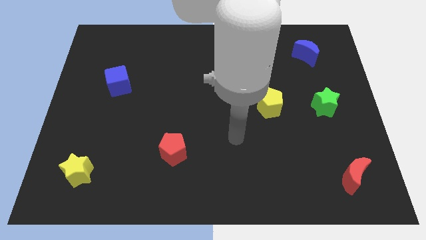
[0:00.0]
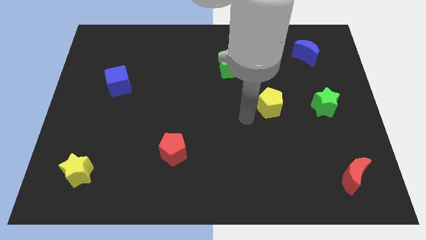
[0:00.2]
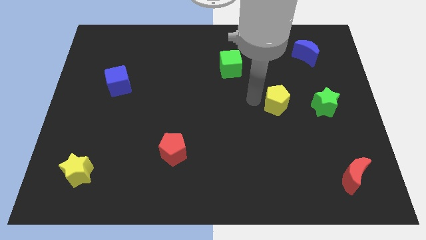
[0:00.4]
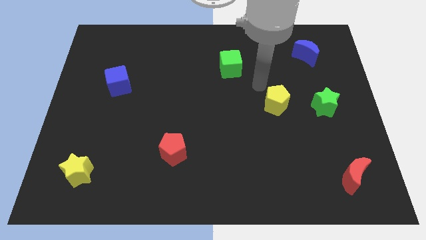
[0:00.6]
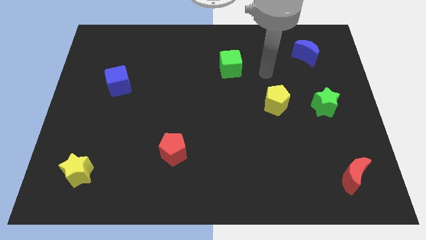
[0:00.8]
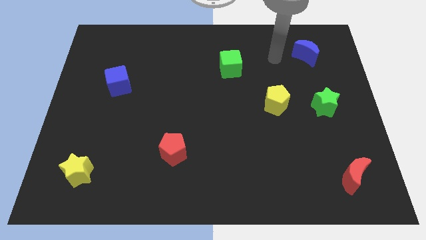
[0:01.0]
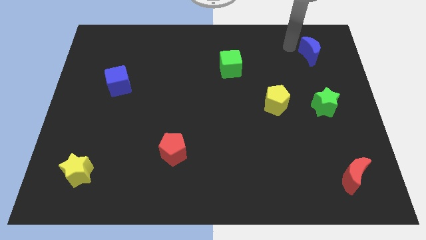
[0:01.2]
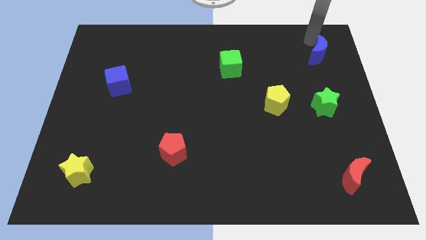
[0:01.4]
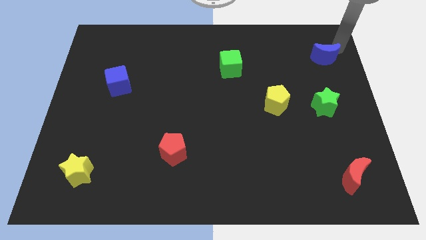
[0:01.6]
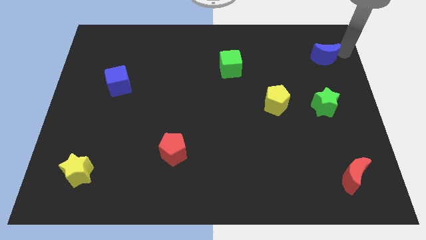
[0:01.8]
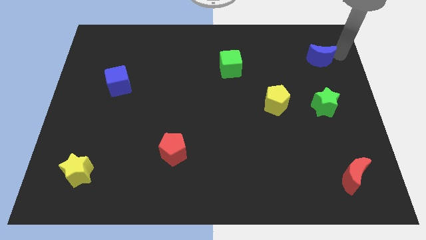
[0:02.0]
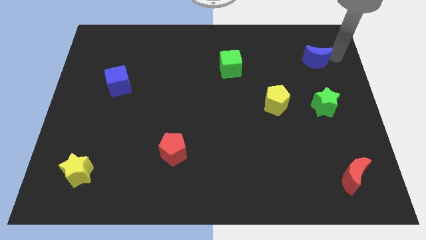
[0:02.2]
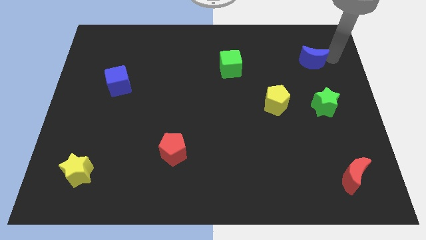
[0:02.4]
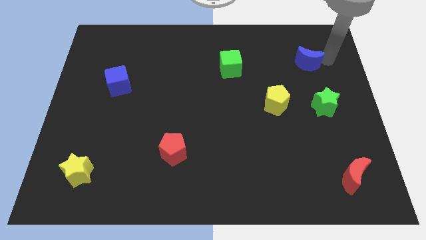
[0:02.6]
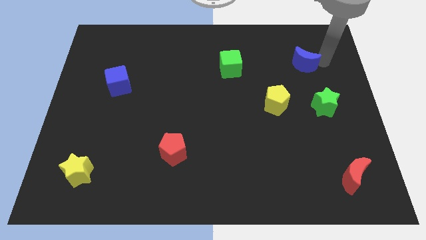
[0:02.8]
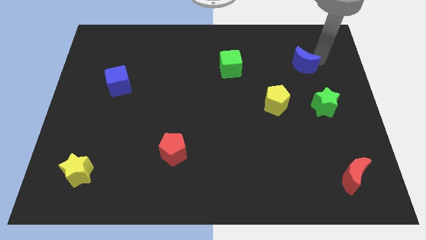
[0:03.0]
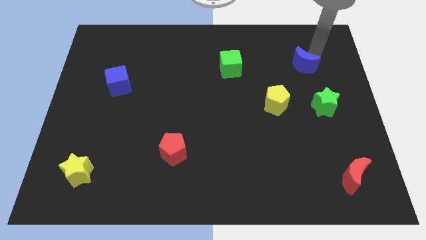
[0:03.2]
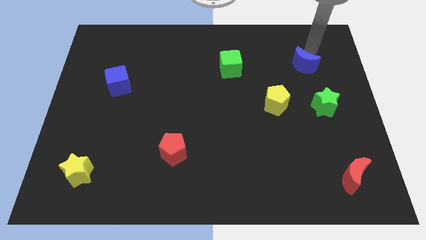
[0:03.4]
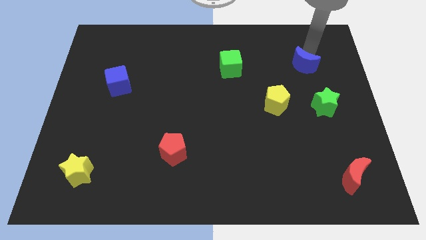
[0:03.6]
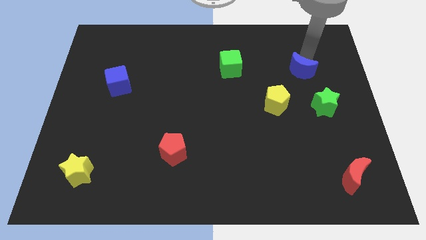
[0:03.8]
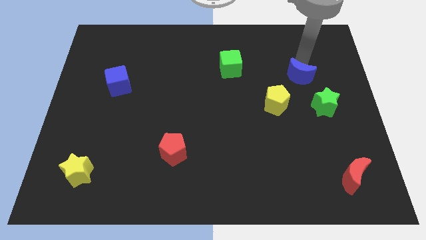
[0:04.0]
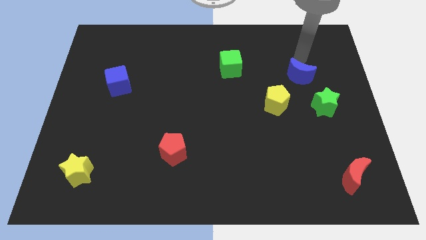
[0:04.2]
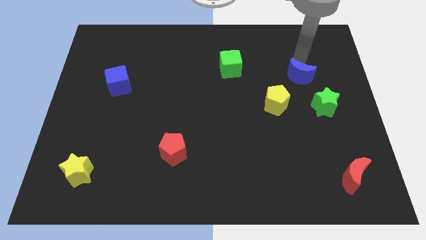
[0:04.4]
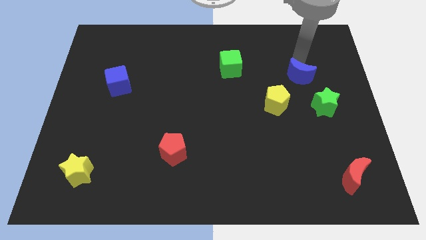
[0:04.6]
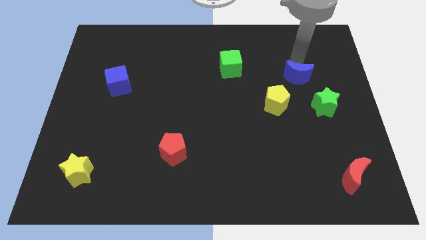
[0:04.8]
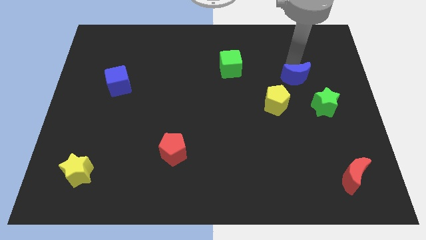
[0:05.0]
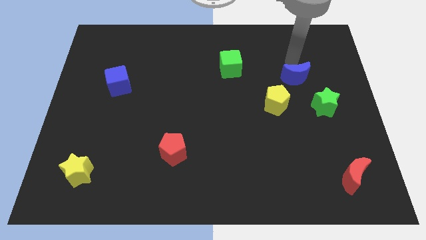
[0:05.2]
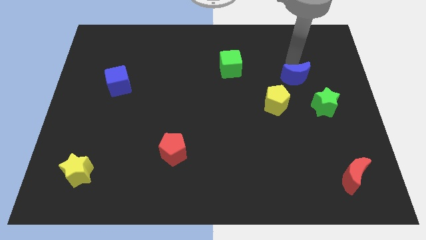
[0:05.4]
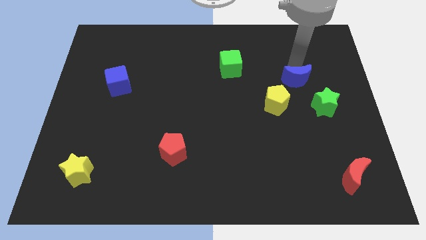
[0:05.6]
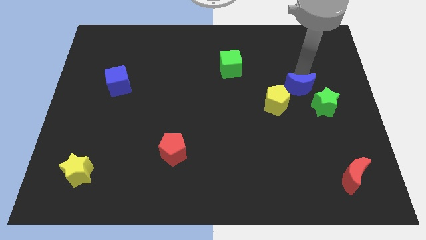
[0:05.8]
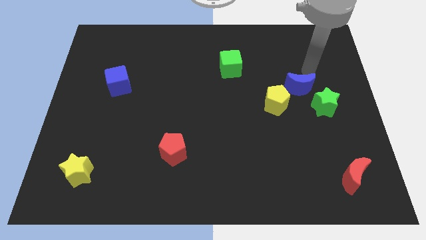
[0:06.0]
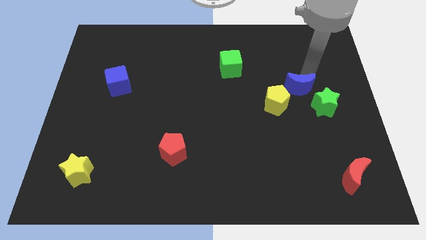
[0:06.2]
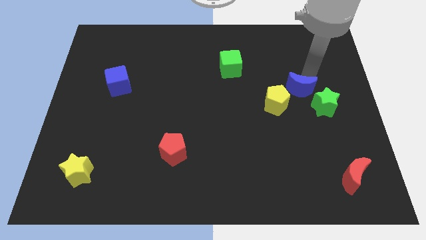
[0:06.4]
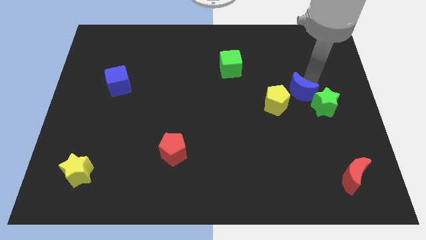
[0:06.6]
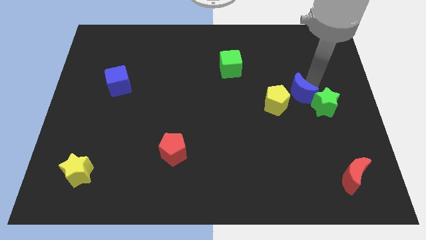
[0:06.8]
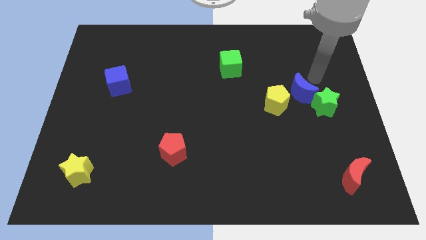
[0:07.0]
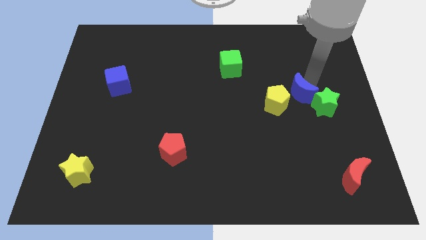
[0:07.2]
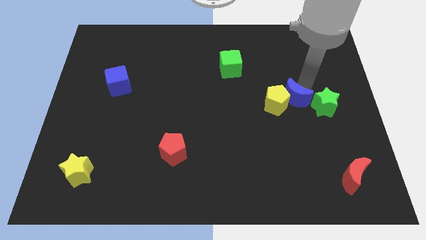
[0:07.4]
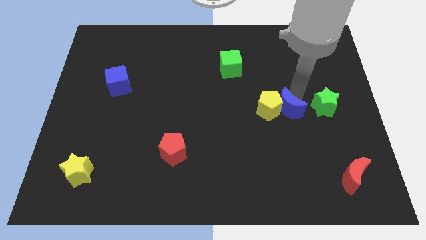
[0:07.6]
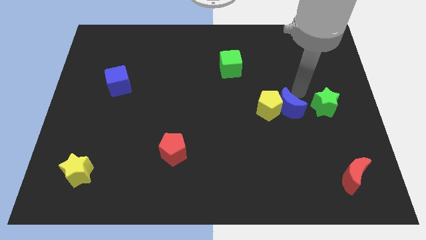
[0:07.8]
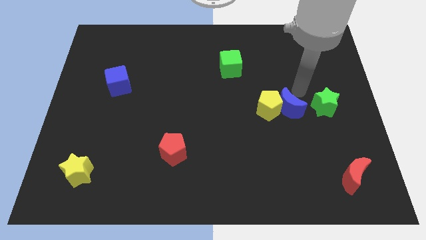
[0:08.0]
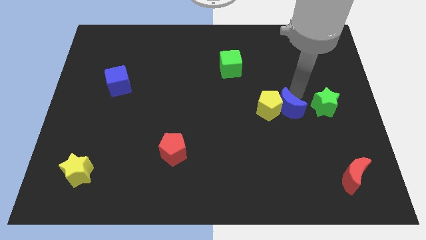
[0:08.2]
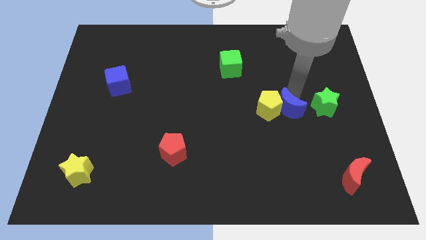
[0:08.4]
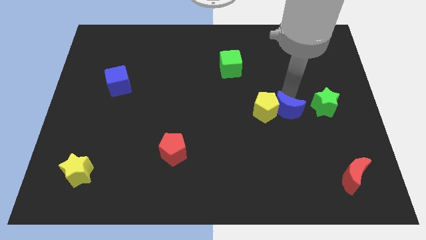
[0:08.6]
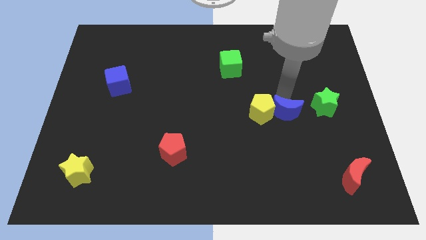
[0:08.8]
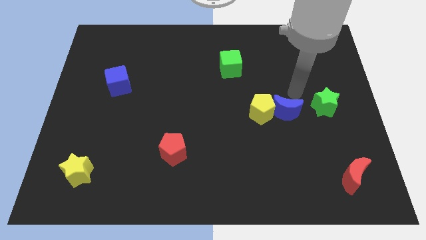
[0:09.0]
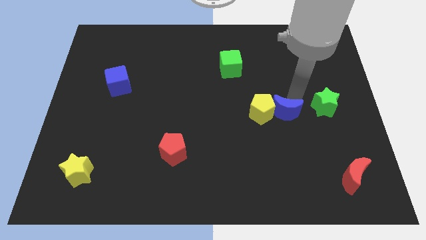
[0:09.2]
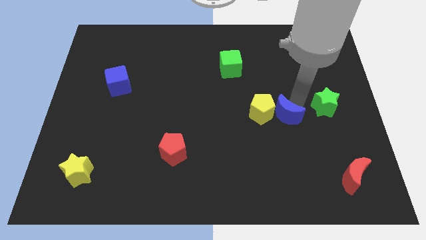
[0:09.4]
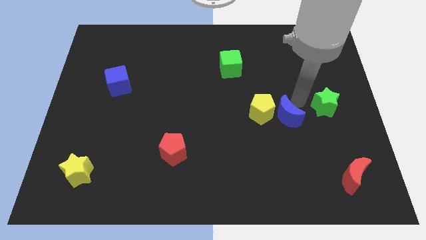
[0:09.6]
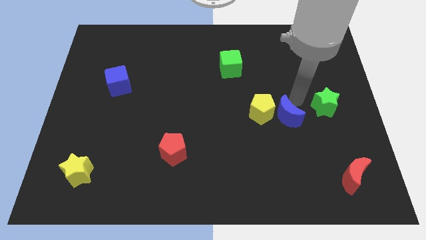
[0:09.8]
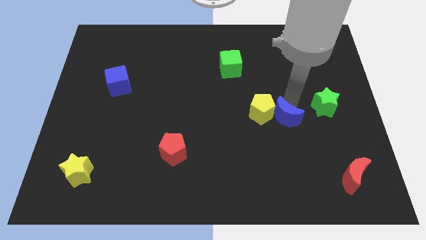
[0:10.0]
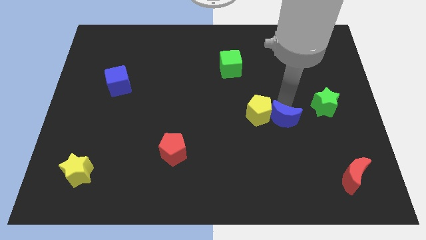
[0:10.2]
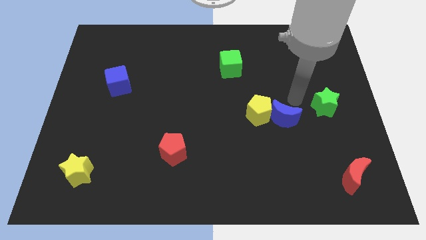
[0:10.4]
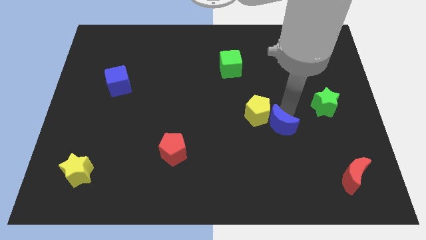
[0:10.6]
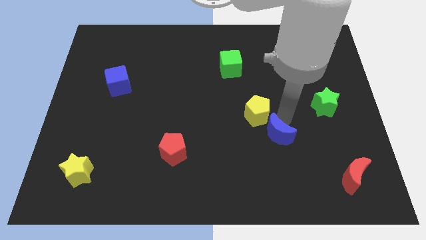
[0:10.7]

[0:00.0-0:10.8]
slide the blue moon to the bottom side of the yellow pentagon

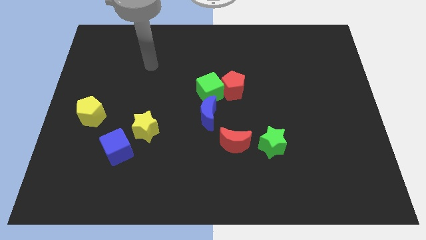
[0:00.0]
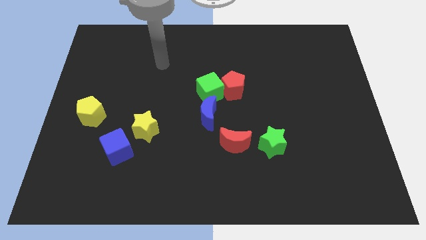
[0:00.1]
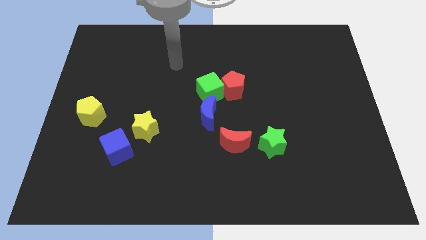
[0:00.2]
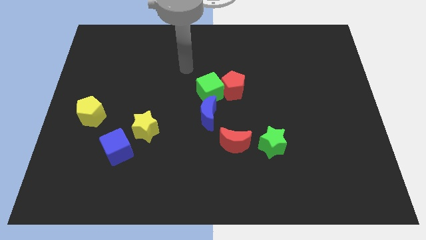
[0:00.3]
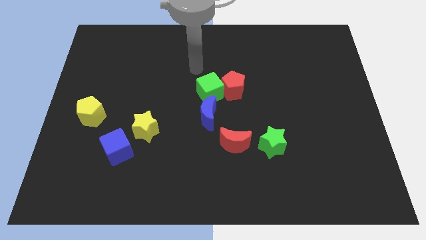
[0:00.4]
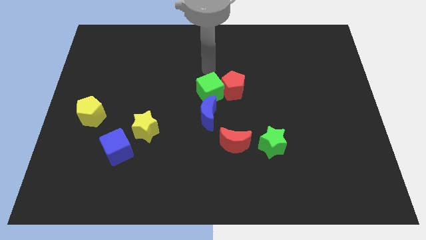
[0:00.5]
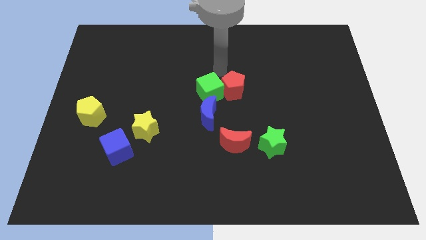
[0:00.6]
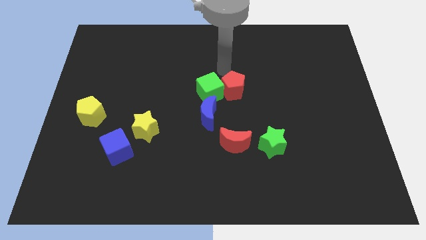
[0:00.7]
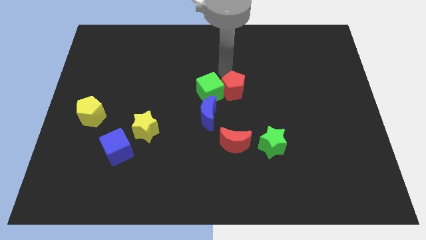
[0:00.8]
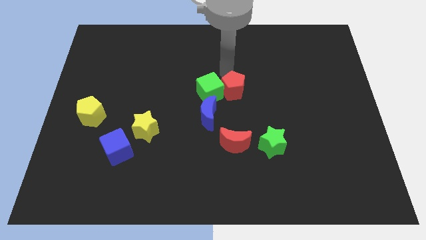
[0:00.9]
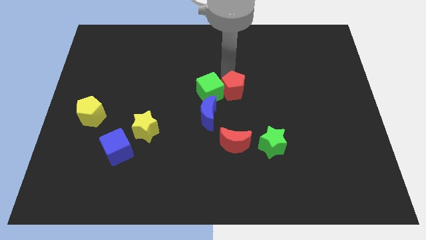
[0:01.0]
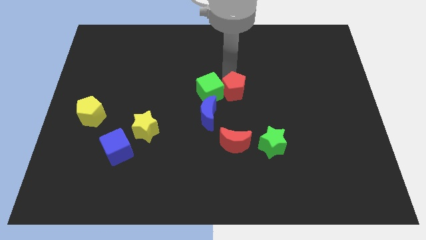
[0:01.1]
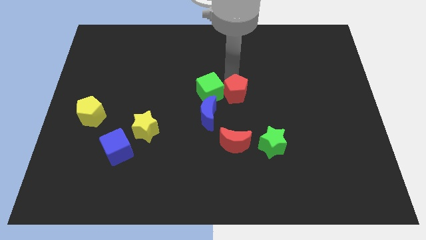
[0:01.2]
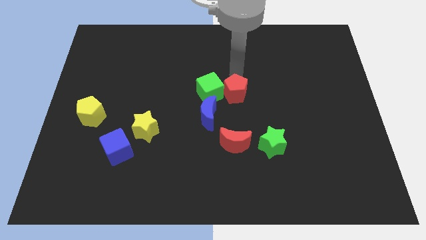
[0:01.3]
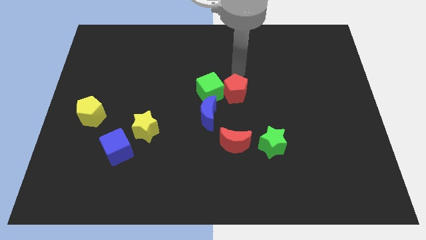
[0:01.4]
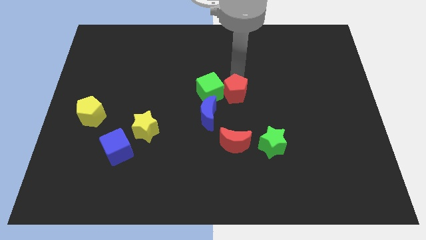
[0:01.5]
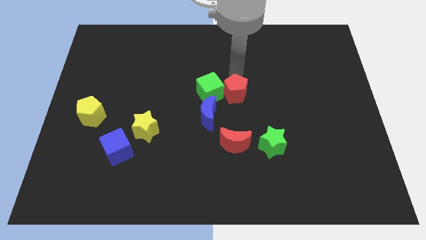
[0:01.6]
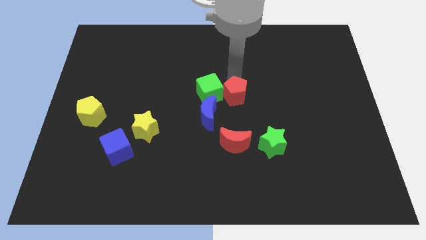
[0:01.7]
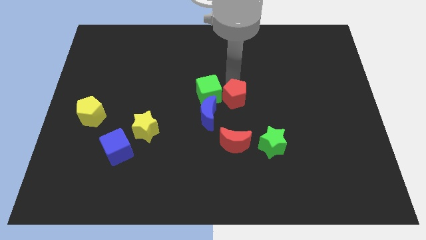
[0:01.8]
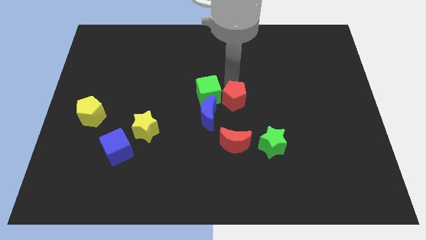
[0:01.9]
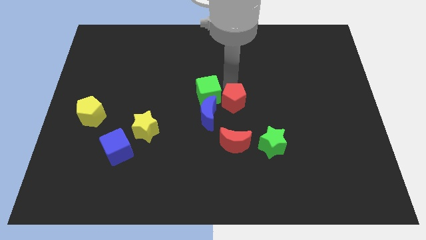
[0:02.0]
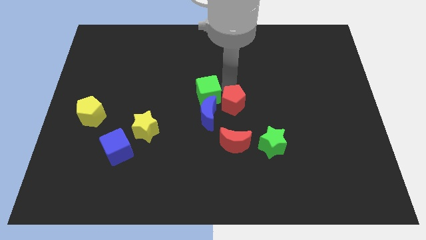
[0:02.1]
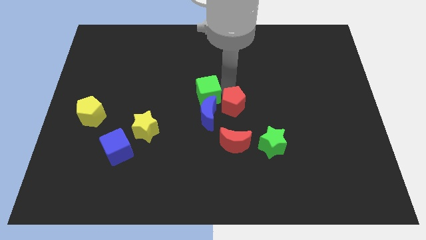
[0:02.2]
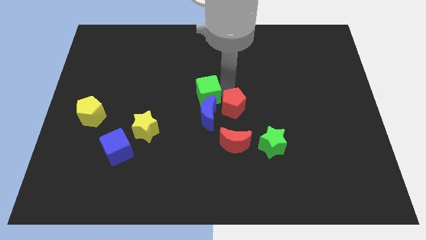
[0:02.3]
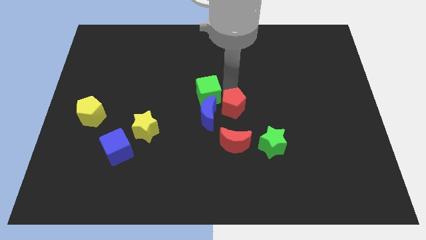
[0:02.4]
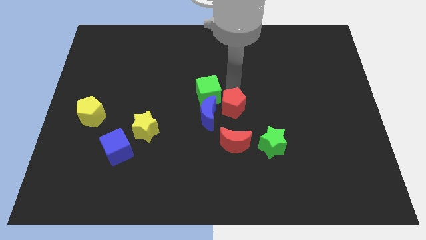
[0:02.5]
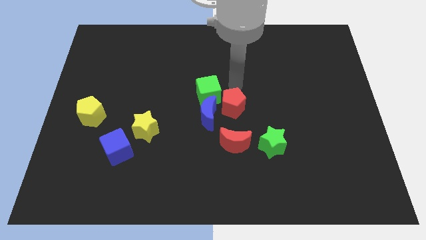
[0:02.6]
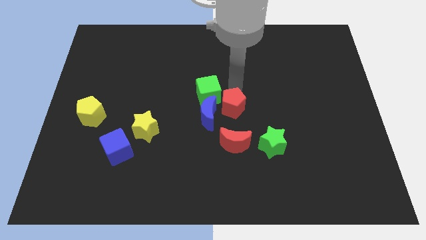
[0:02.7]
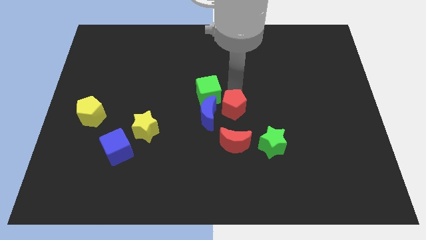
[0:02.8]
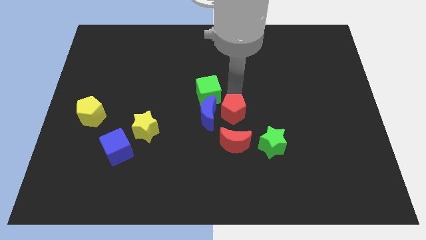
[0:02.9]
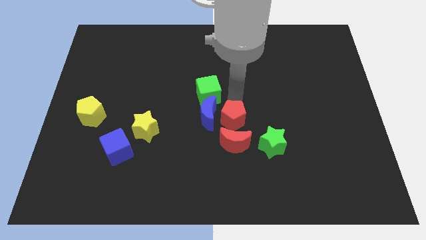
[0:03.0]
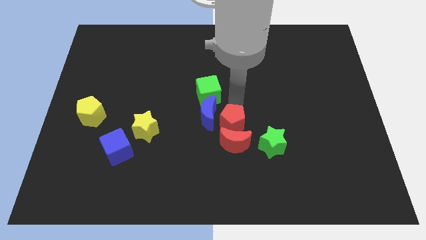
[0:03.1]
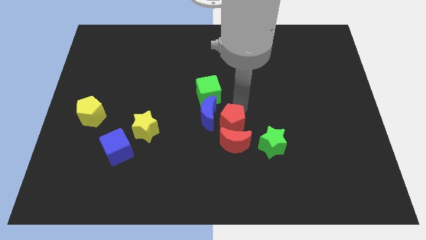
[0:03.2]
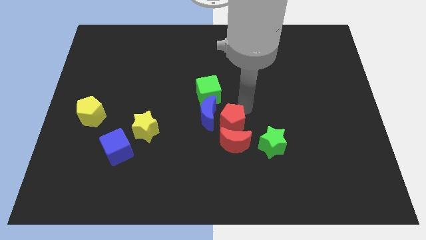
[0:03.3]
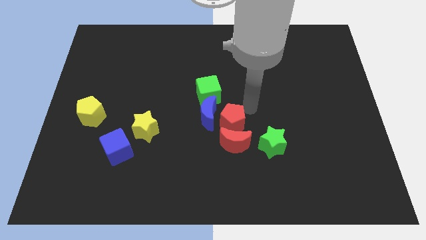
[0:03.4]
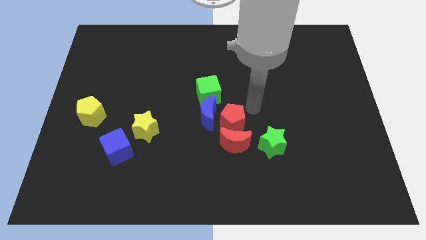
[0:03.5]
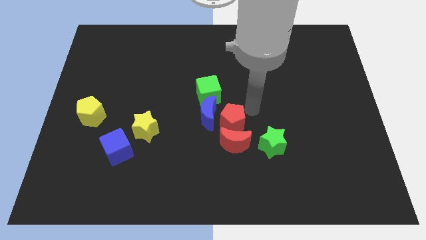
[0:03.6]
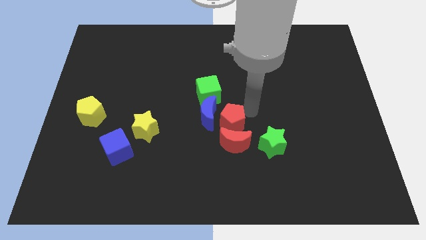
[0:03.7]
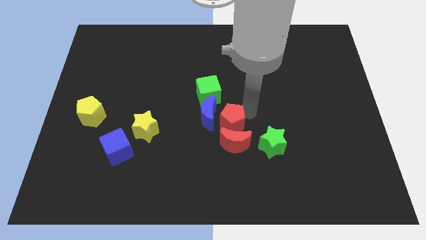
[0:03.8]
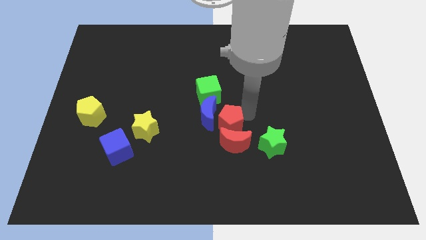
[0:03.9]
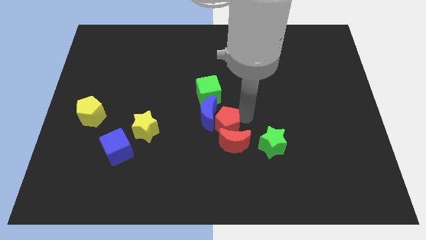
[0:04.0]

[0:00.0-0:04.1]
move the red pentagon to the bottom of the blue moon
